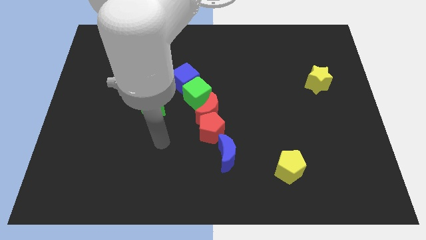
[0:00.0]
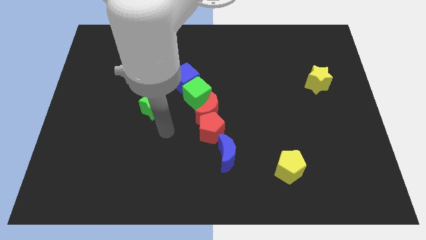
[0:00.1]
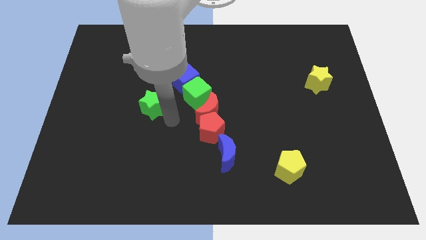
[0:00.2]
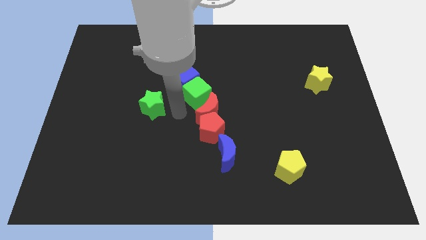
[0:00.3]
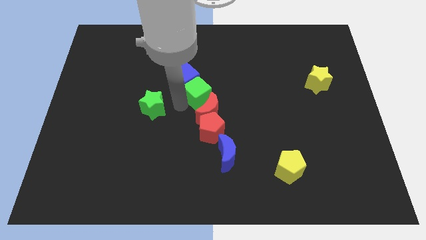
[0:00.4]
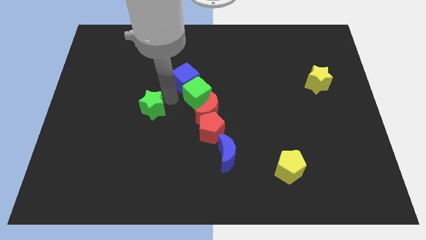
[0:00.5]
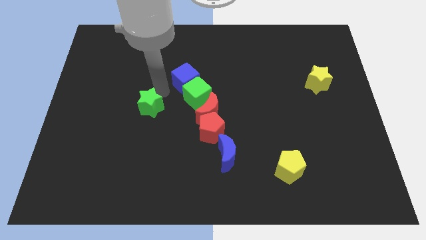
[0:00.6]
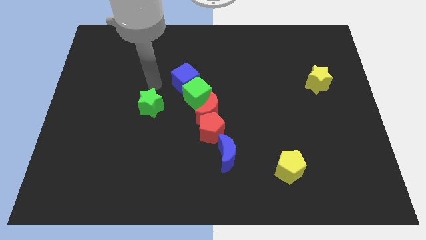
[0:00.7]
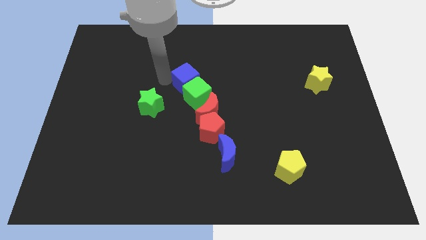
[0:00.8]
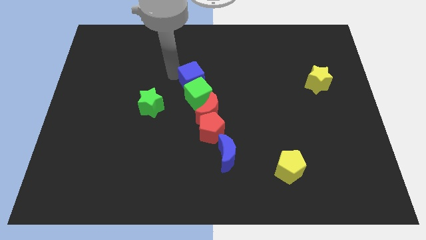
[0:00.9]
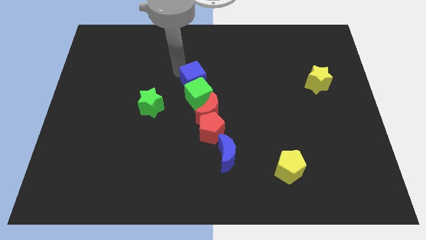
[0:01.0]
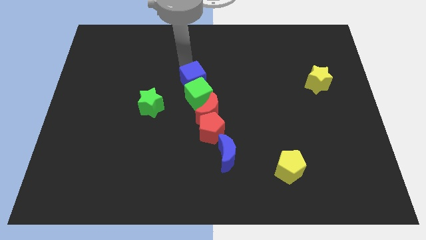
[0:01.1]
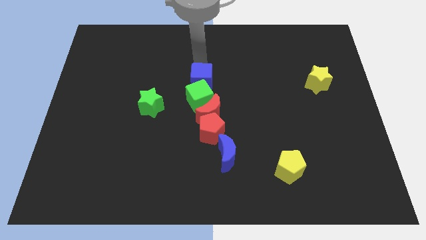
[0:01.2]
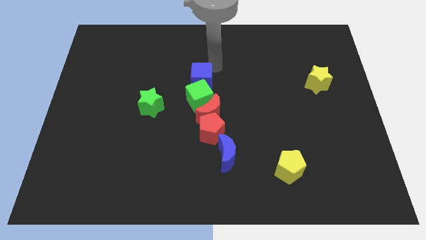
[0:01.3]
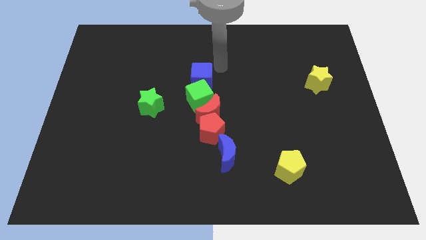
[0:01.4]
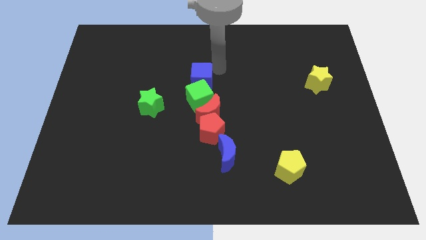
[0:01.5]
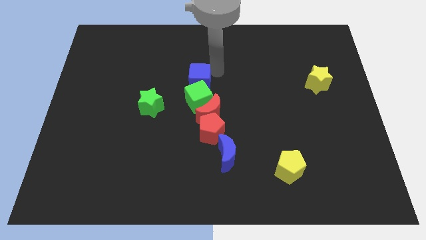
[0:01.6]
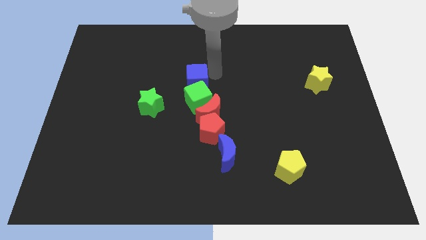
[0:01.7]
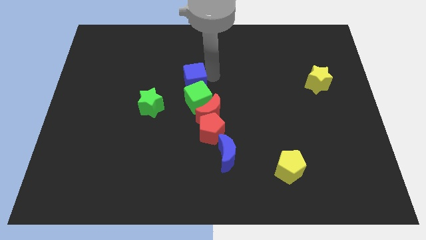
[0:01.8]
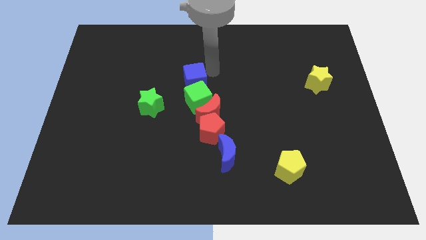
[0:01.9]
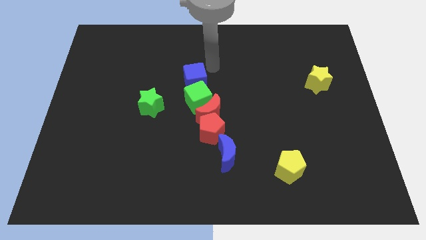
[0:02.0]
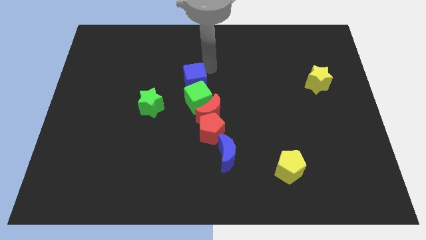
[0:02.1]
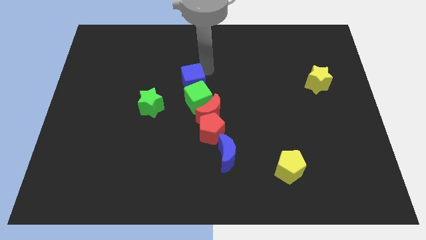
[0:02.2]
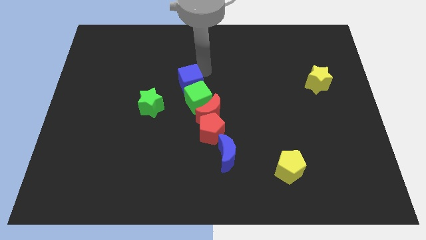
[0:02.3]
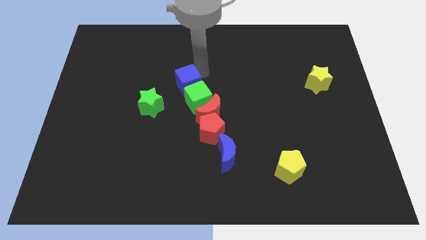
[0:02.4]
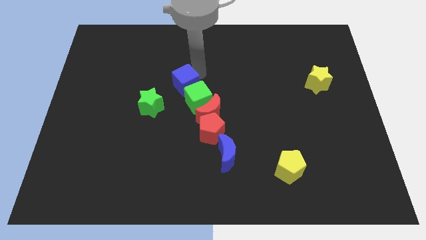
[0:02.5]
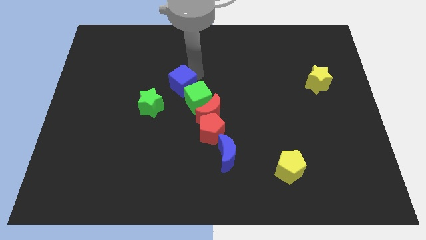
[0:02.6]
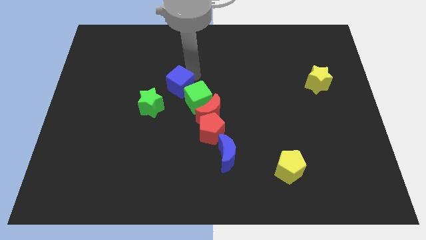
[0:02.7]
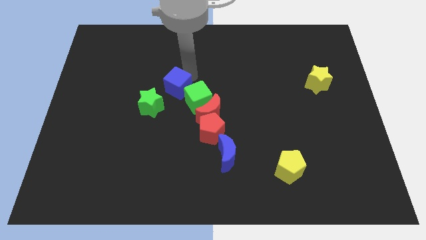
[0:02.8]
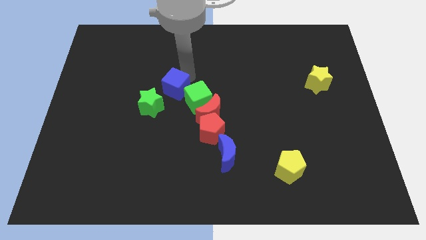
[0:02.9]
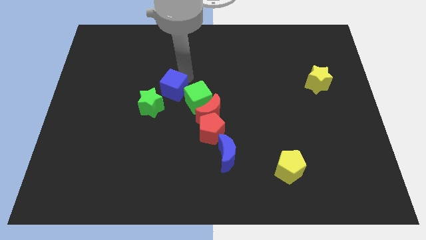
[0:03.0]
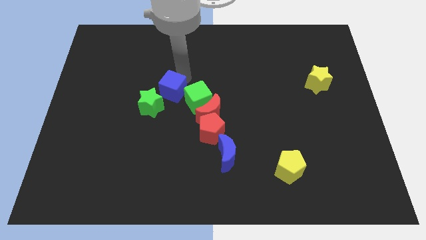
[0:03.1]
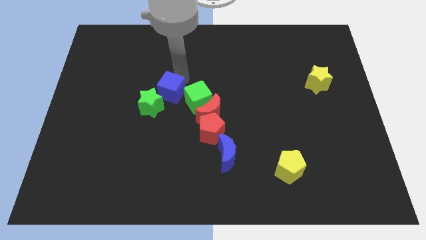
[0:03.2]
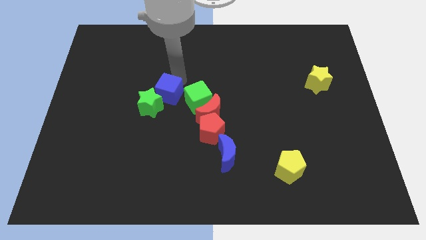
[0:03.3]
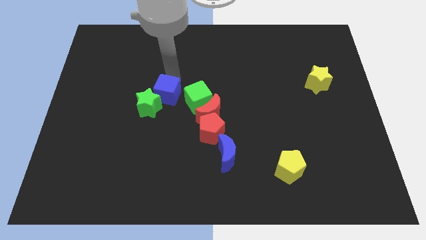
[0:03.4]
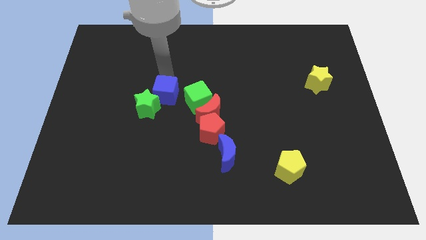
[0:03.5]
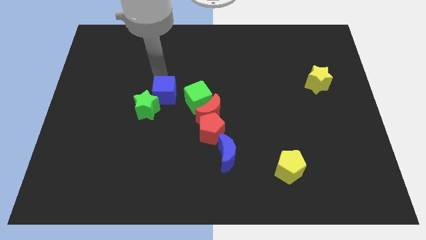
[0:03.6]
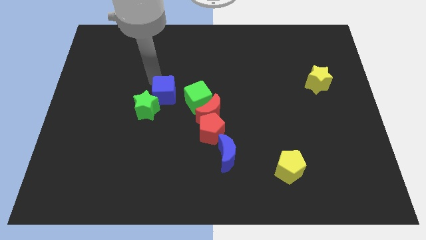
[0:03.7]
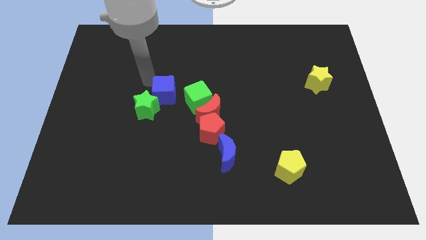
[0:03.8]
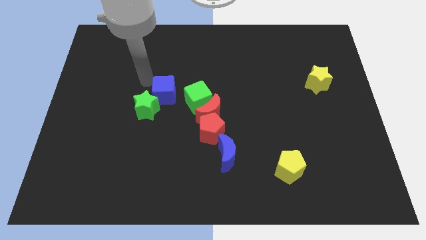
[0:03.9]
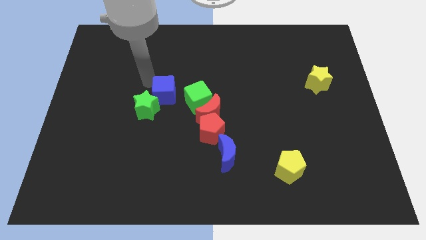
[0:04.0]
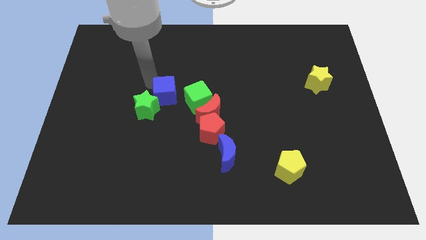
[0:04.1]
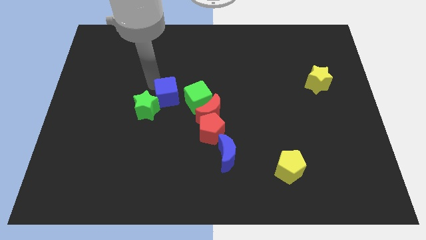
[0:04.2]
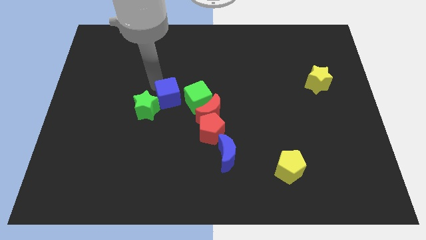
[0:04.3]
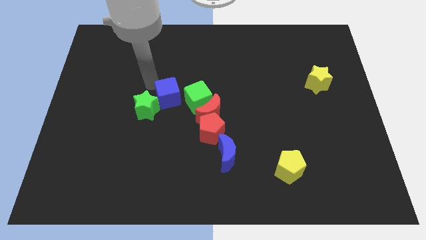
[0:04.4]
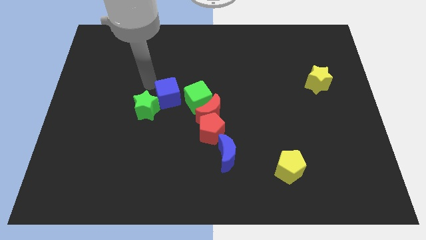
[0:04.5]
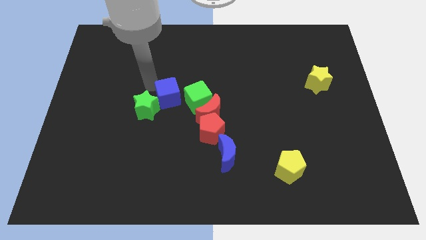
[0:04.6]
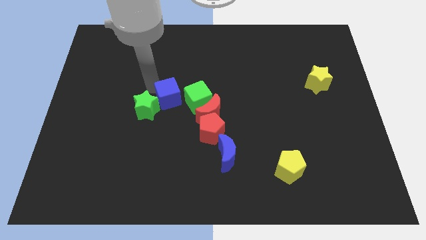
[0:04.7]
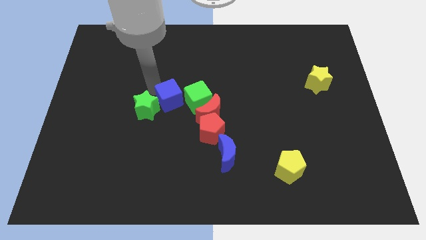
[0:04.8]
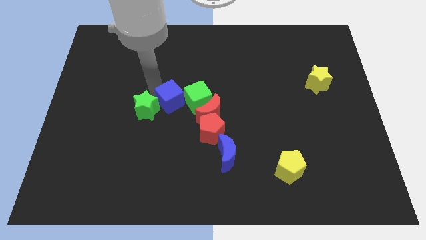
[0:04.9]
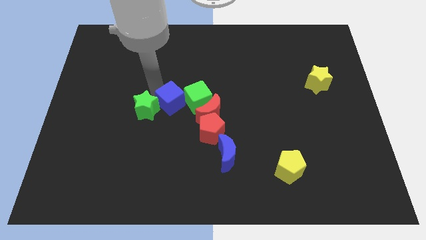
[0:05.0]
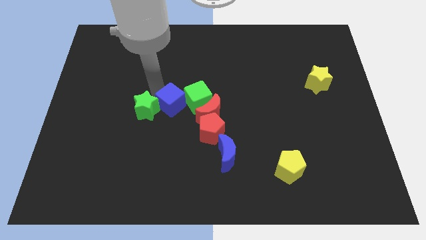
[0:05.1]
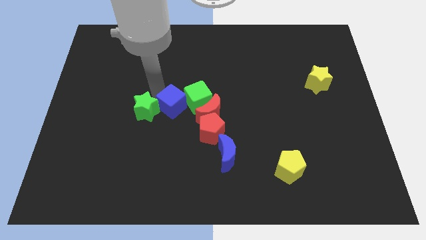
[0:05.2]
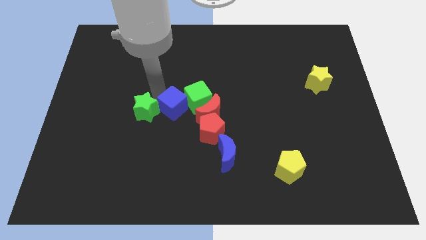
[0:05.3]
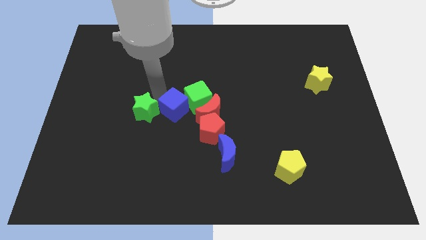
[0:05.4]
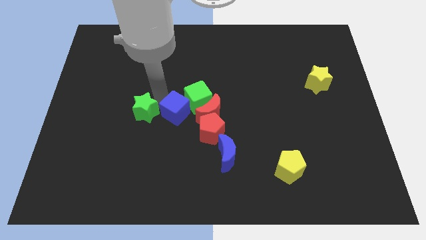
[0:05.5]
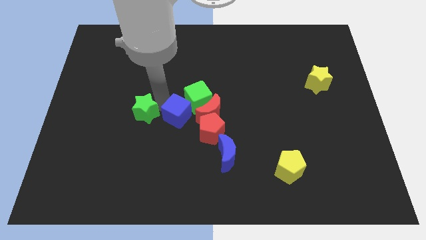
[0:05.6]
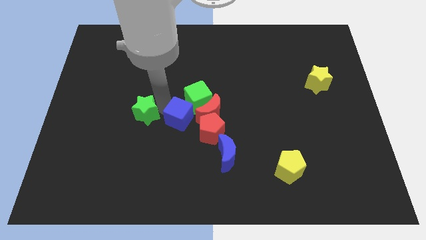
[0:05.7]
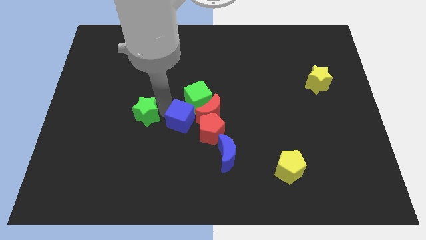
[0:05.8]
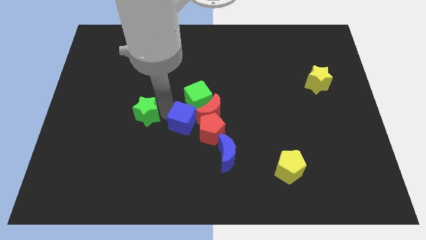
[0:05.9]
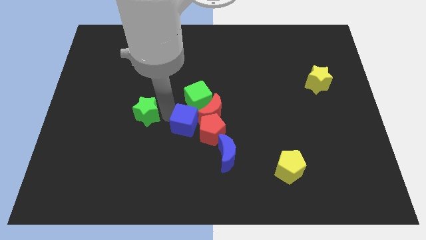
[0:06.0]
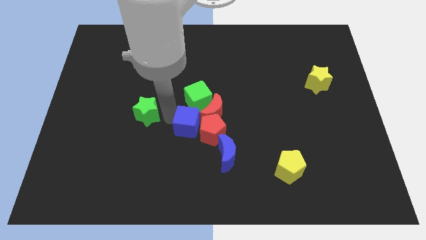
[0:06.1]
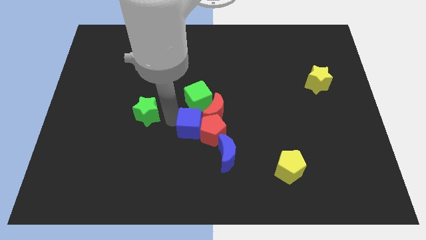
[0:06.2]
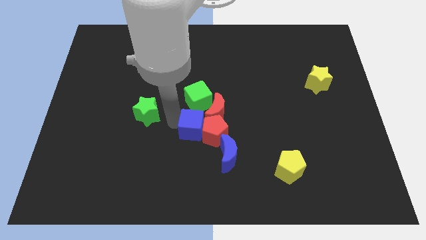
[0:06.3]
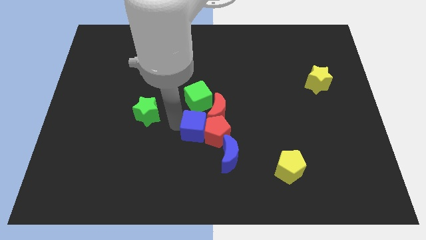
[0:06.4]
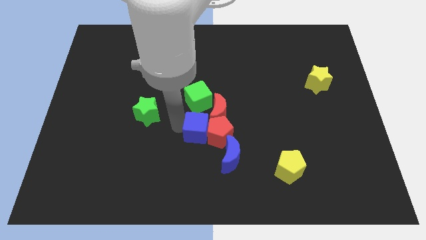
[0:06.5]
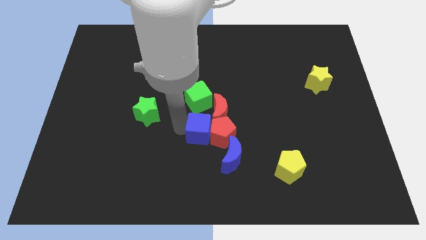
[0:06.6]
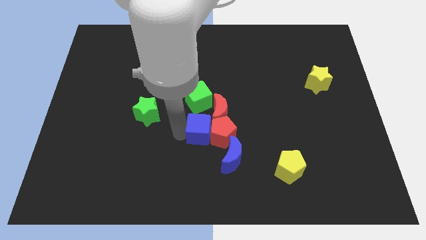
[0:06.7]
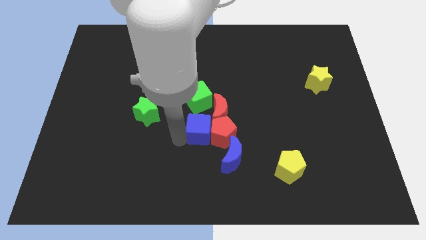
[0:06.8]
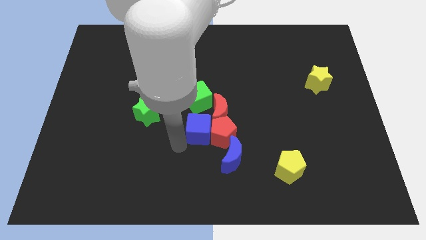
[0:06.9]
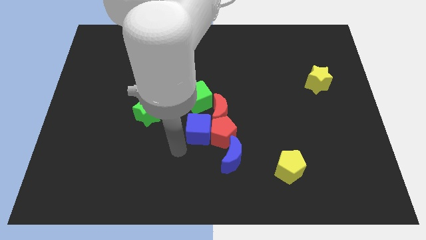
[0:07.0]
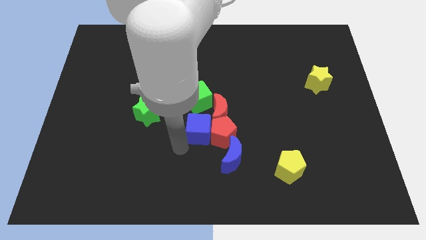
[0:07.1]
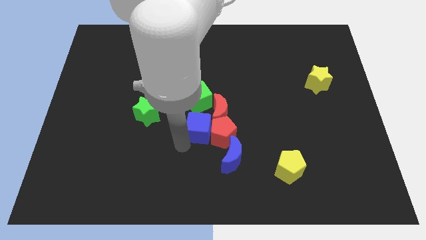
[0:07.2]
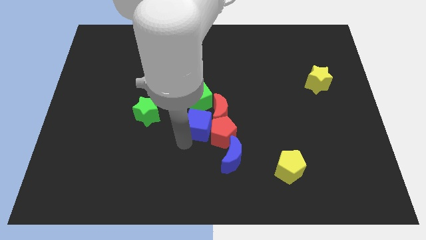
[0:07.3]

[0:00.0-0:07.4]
move the blue cube close to the red moon

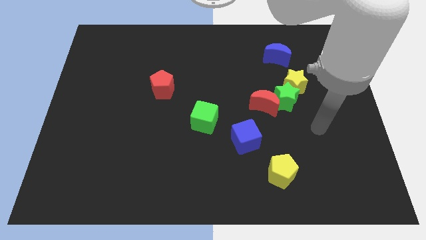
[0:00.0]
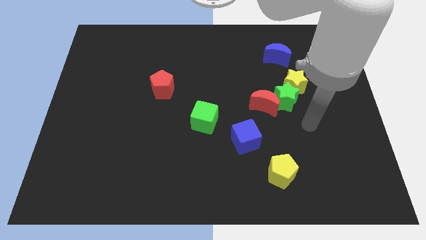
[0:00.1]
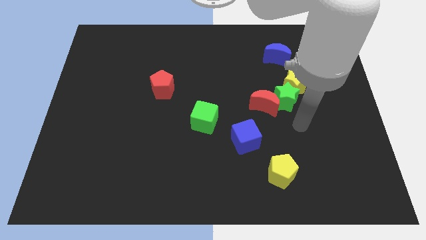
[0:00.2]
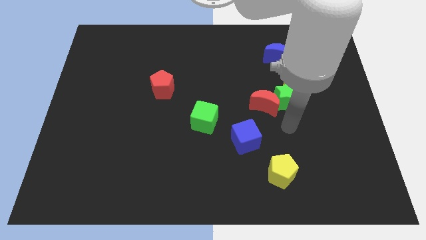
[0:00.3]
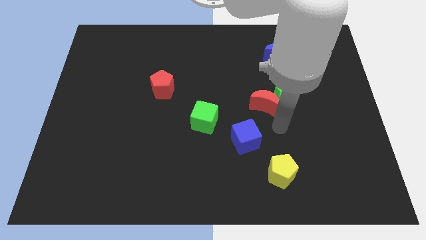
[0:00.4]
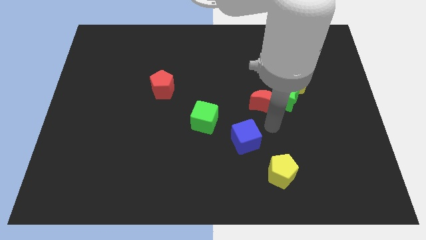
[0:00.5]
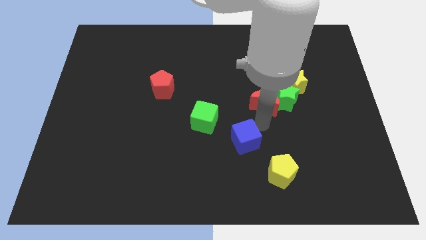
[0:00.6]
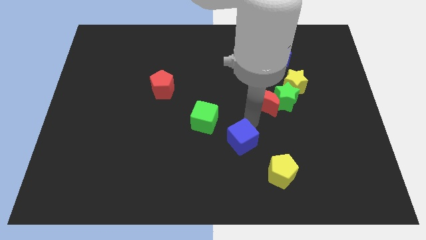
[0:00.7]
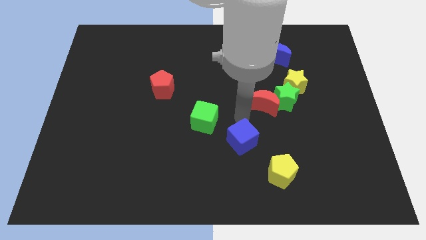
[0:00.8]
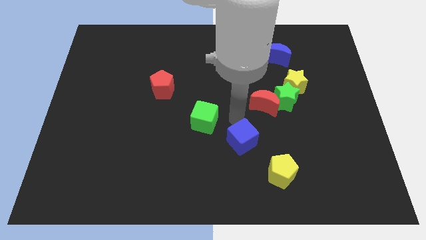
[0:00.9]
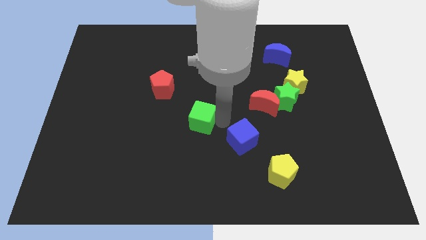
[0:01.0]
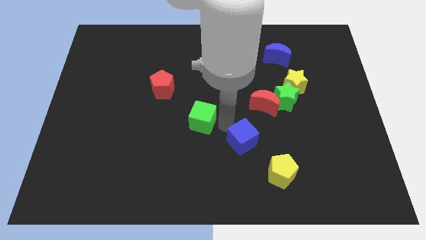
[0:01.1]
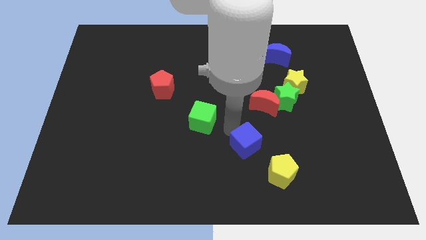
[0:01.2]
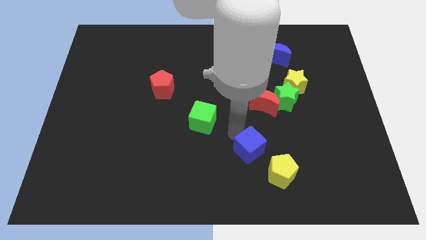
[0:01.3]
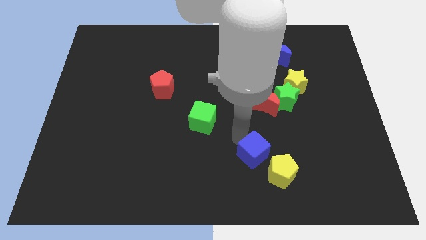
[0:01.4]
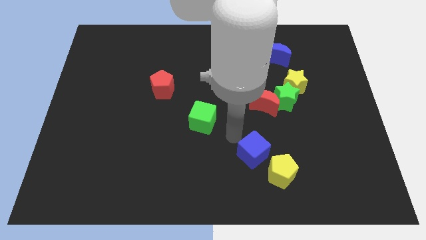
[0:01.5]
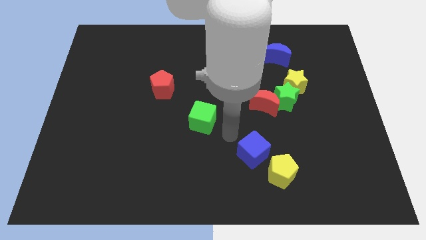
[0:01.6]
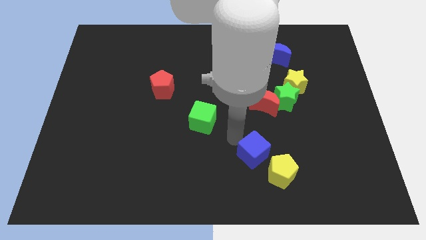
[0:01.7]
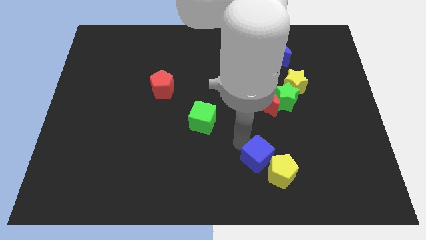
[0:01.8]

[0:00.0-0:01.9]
move the blue cube next to the yellow pentagon
